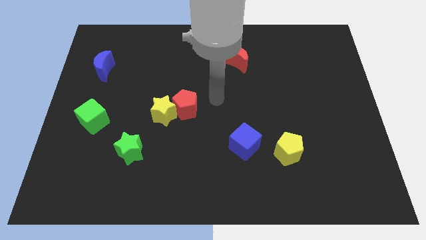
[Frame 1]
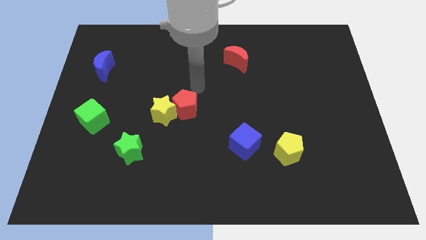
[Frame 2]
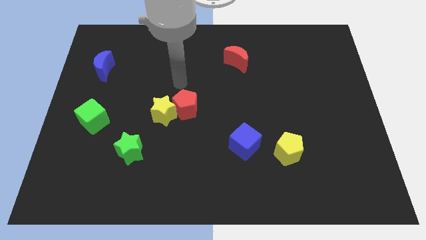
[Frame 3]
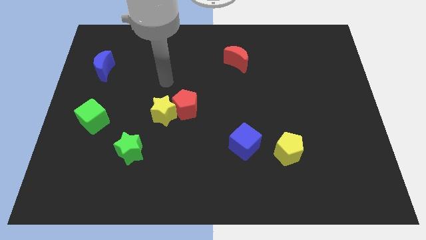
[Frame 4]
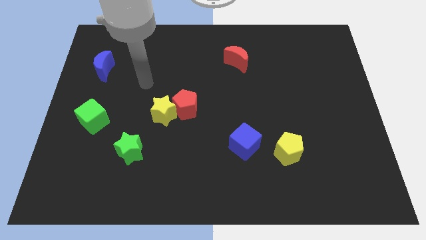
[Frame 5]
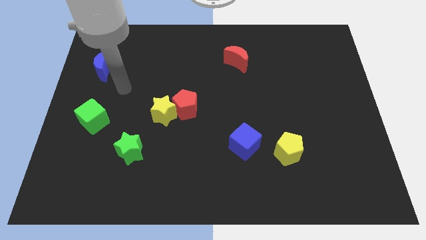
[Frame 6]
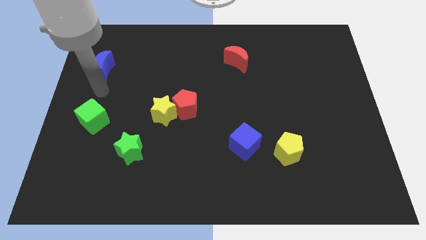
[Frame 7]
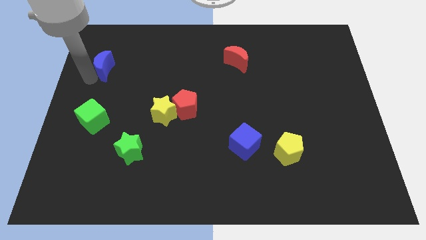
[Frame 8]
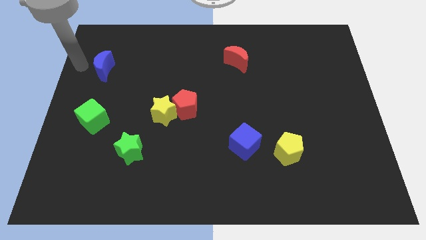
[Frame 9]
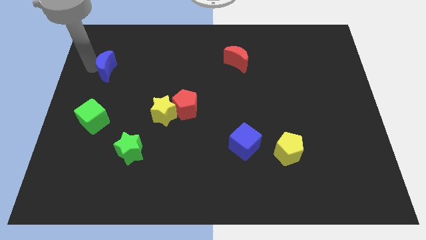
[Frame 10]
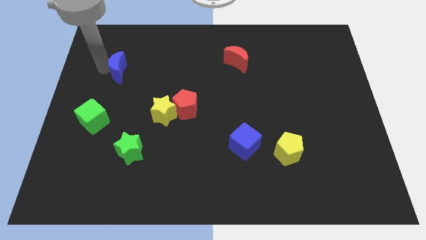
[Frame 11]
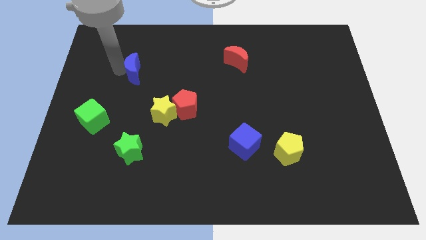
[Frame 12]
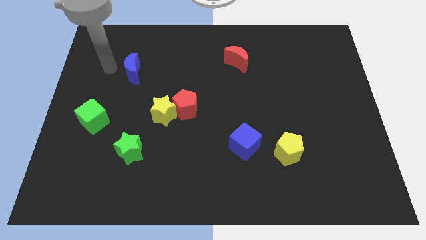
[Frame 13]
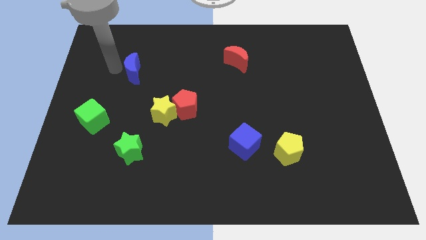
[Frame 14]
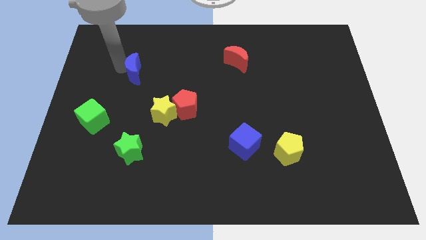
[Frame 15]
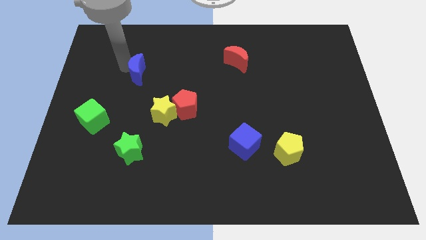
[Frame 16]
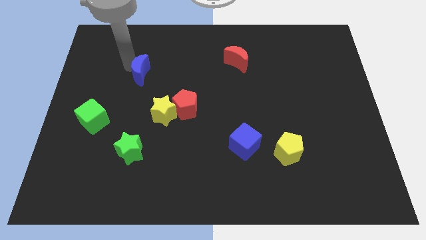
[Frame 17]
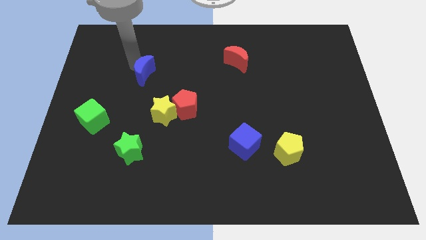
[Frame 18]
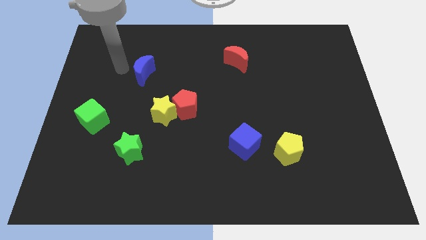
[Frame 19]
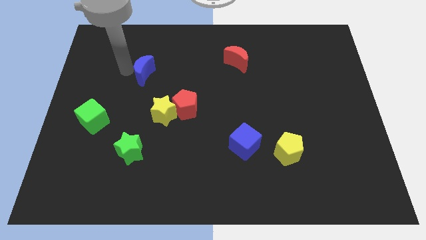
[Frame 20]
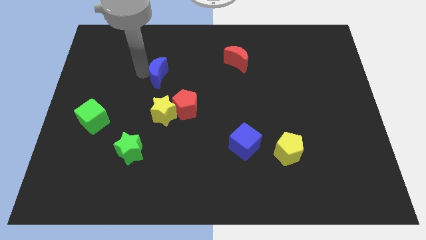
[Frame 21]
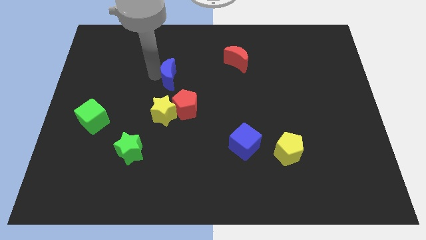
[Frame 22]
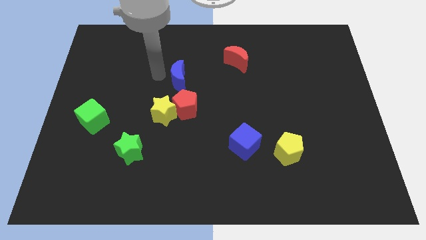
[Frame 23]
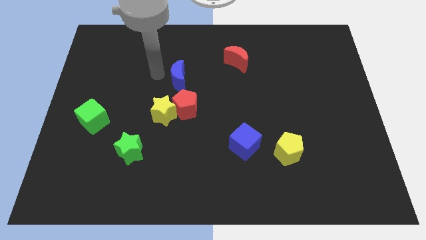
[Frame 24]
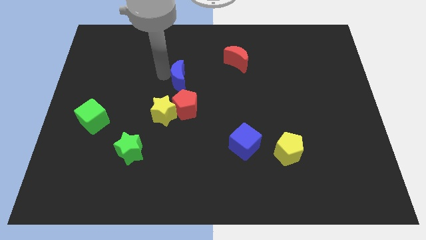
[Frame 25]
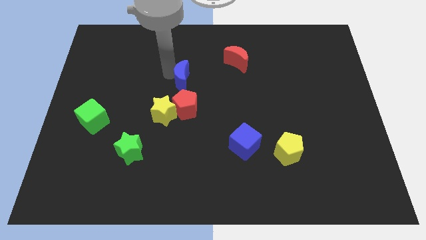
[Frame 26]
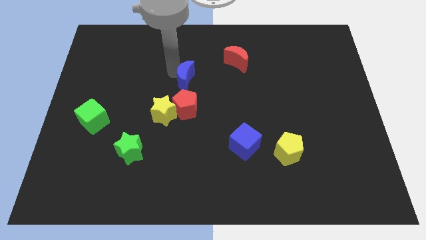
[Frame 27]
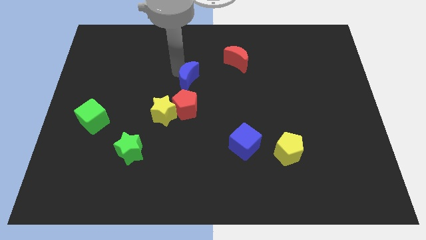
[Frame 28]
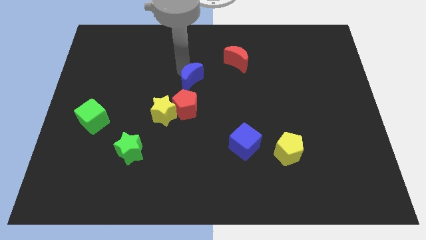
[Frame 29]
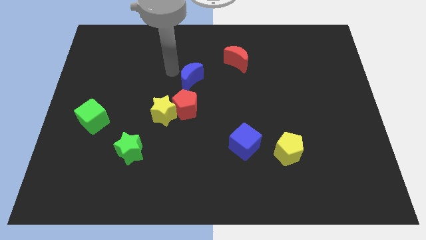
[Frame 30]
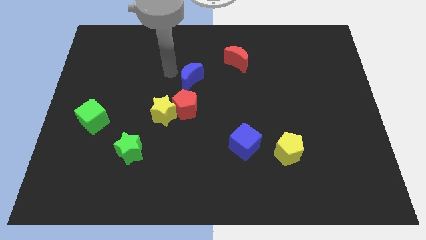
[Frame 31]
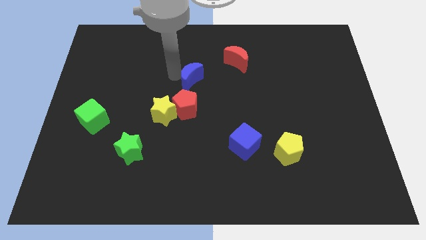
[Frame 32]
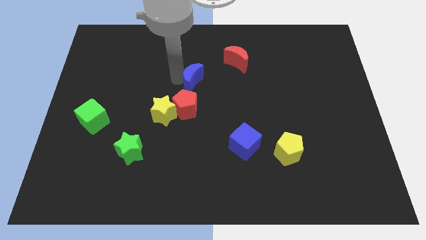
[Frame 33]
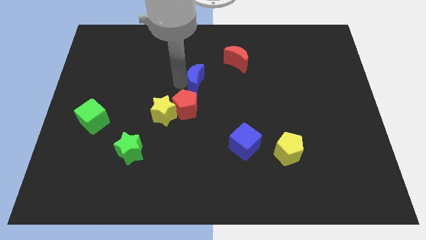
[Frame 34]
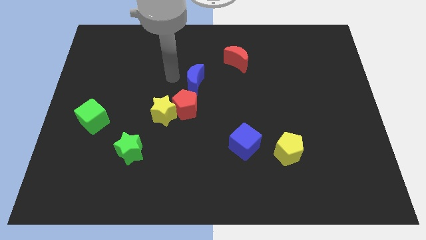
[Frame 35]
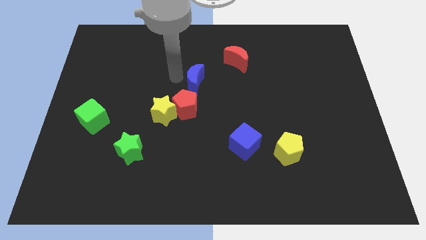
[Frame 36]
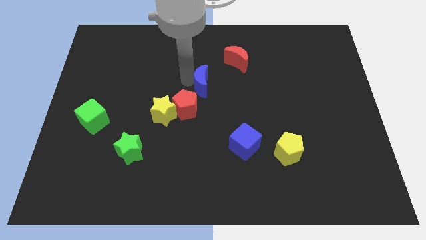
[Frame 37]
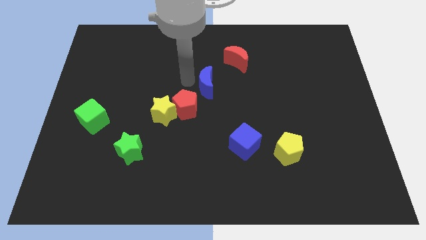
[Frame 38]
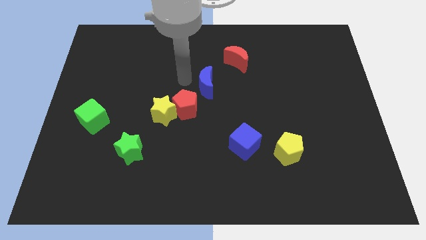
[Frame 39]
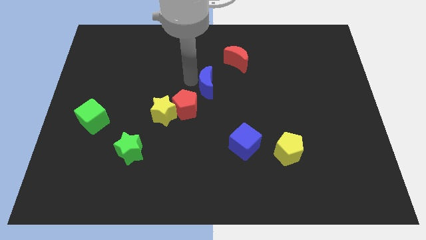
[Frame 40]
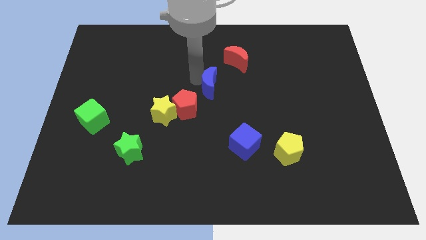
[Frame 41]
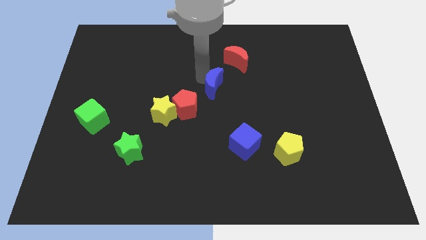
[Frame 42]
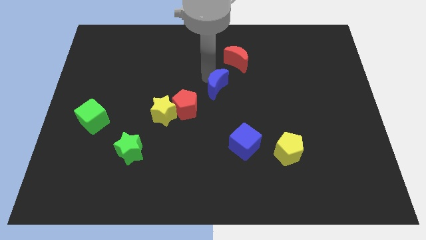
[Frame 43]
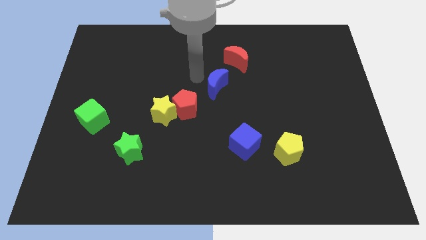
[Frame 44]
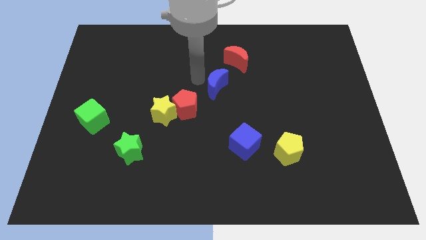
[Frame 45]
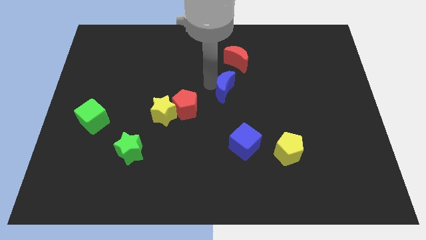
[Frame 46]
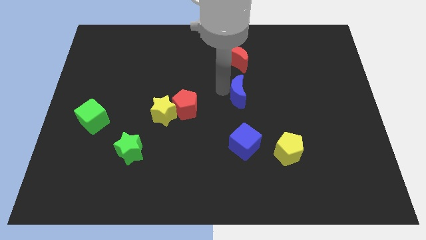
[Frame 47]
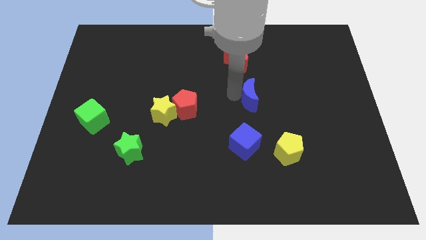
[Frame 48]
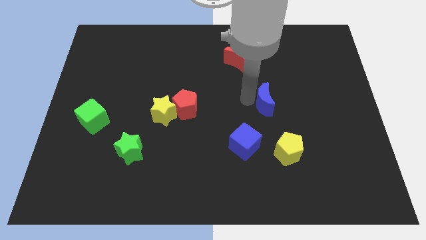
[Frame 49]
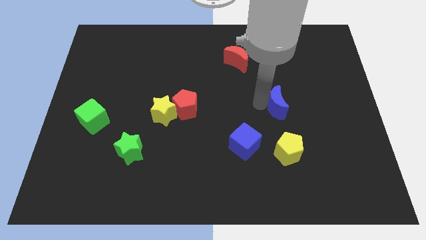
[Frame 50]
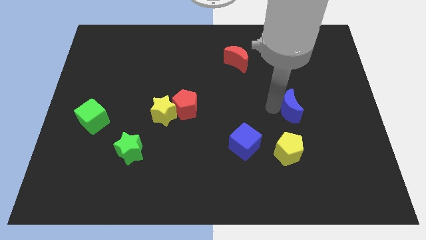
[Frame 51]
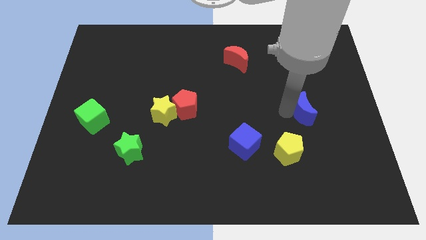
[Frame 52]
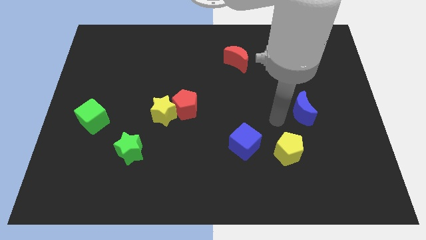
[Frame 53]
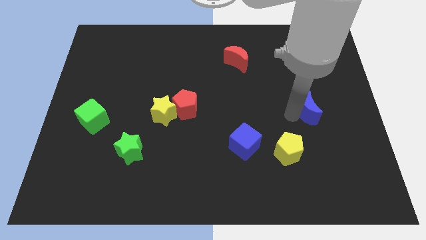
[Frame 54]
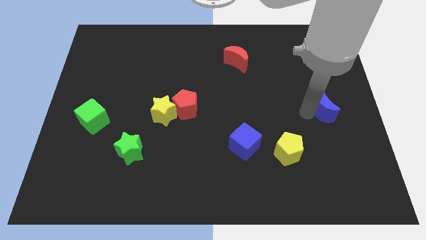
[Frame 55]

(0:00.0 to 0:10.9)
push the blue moon to the right side
